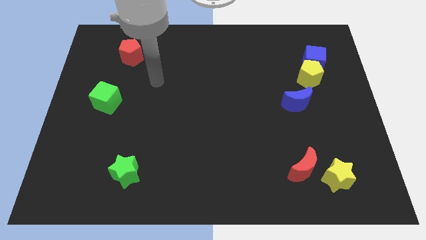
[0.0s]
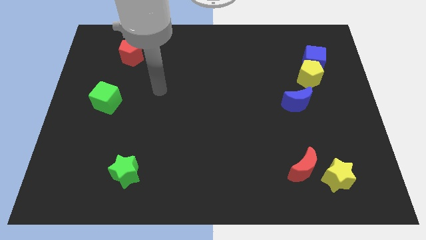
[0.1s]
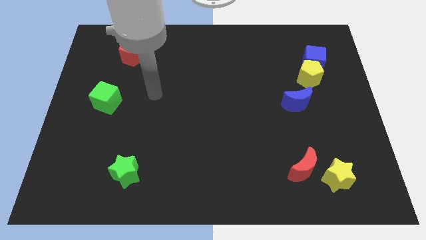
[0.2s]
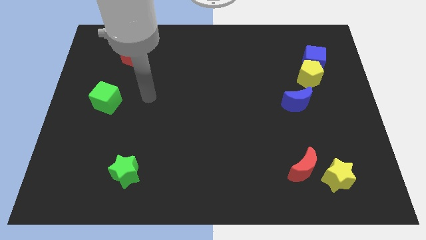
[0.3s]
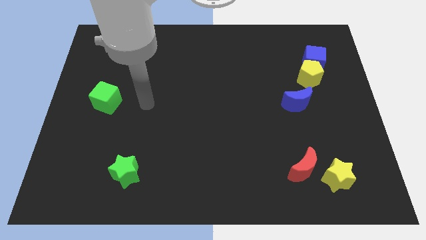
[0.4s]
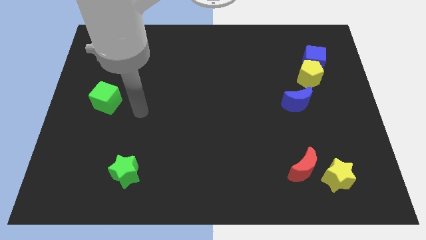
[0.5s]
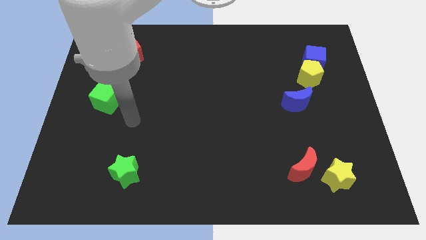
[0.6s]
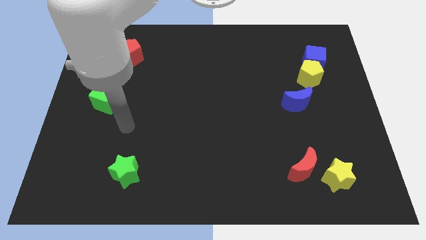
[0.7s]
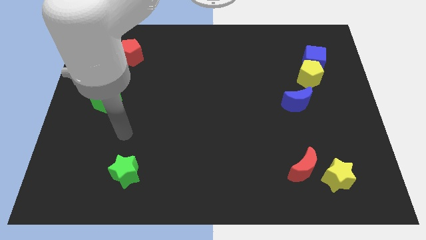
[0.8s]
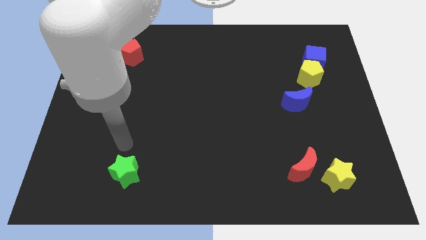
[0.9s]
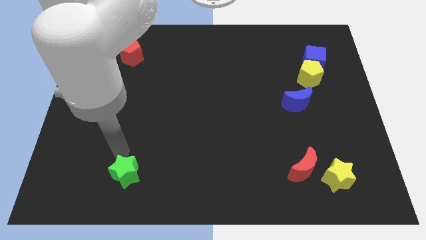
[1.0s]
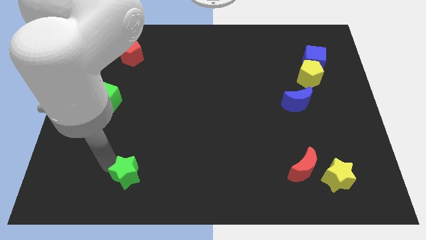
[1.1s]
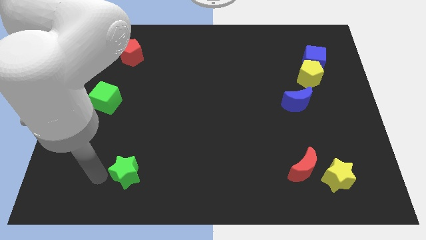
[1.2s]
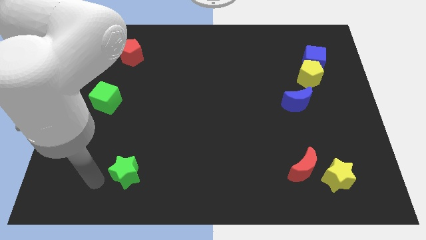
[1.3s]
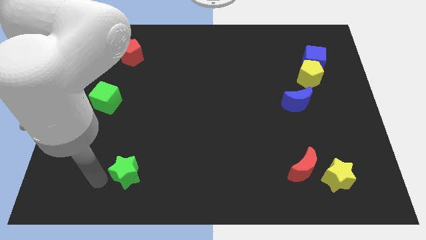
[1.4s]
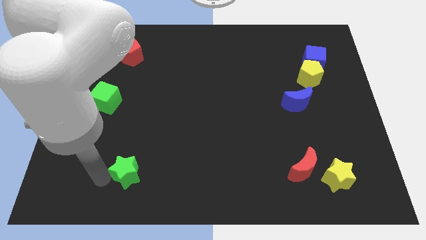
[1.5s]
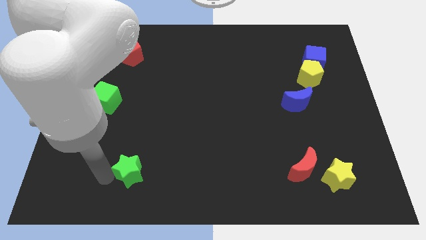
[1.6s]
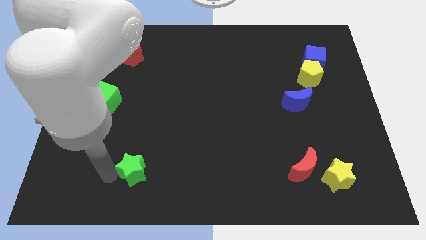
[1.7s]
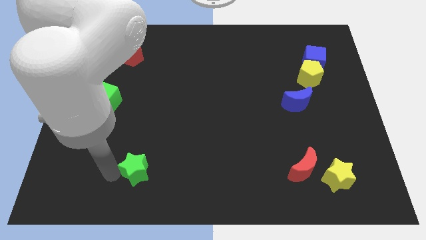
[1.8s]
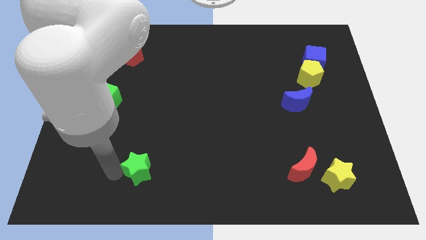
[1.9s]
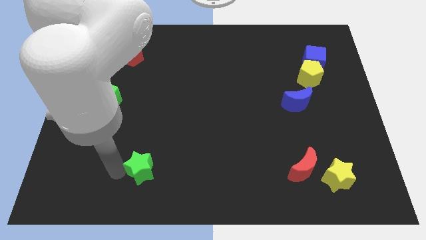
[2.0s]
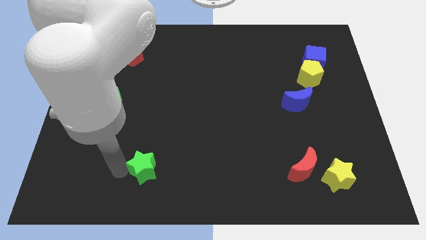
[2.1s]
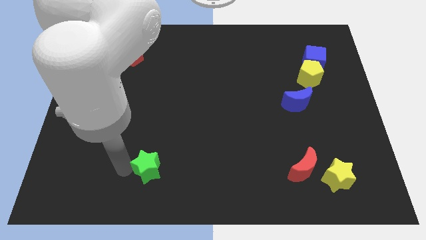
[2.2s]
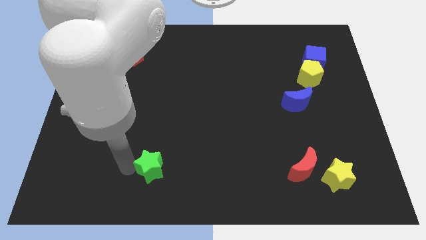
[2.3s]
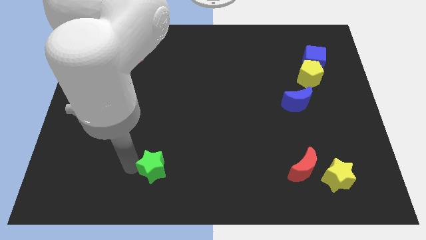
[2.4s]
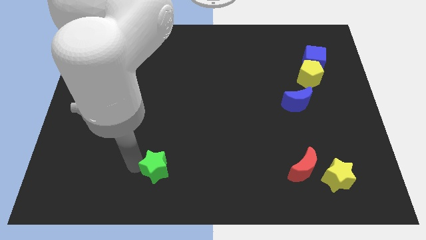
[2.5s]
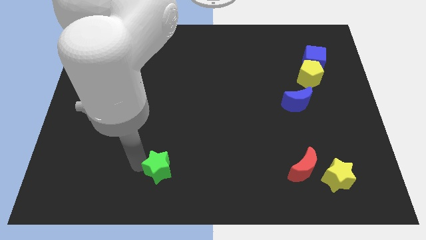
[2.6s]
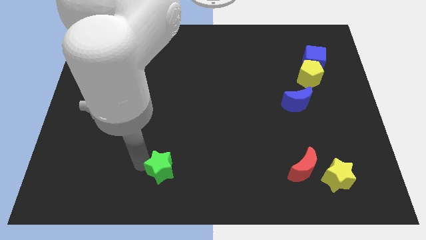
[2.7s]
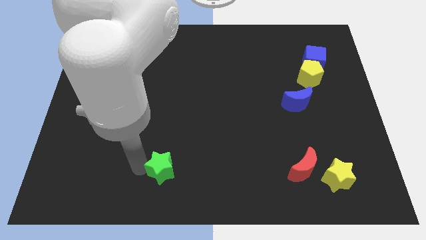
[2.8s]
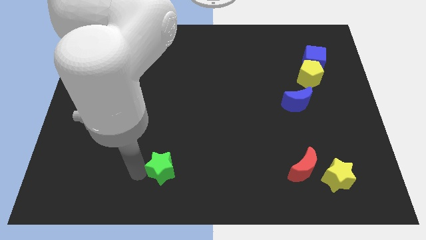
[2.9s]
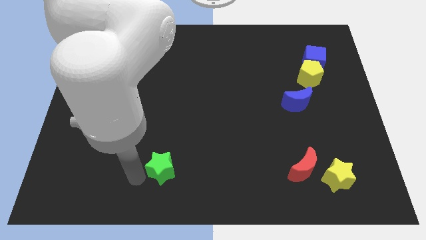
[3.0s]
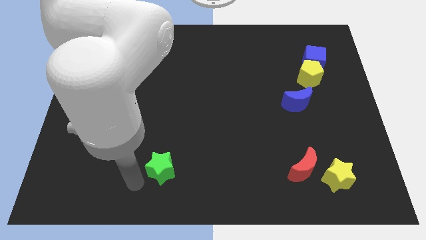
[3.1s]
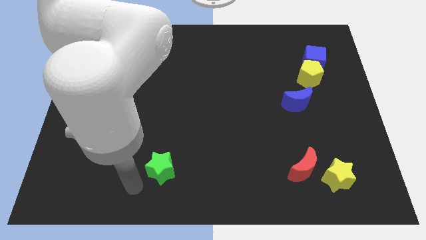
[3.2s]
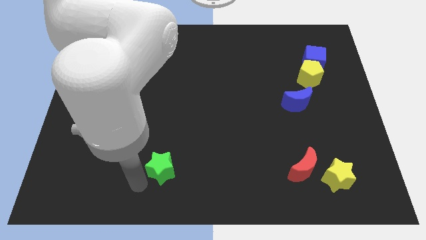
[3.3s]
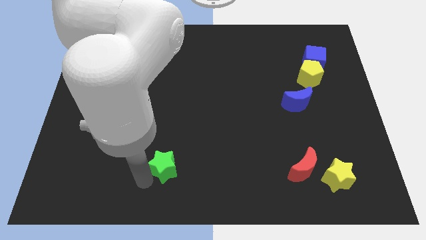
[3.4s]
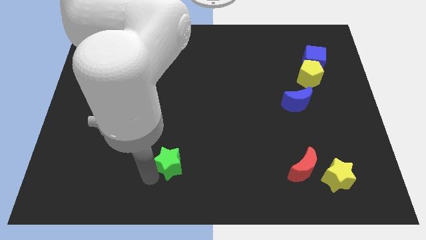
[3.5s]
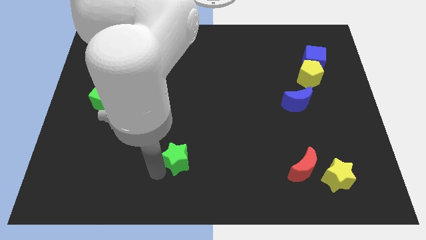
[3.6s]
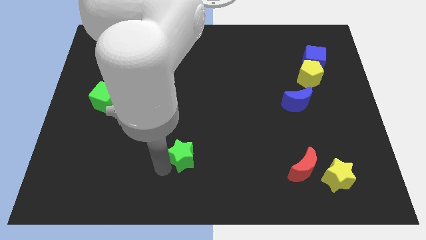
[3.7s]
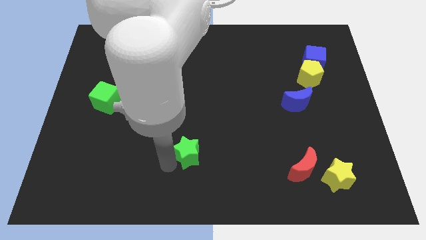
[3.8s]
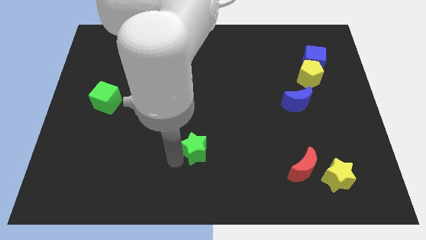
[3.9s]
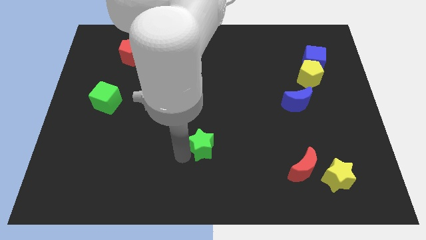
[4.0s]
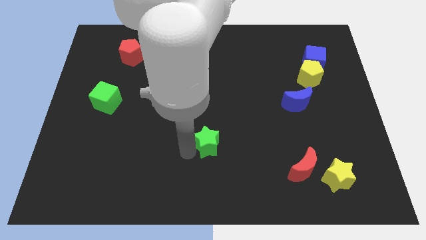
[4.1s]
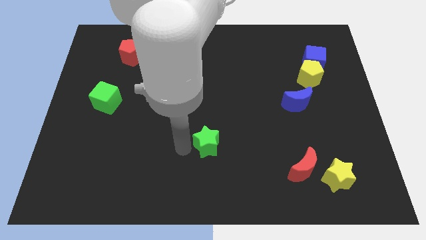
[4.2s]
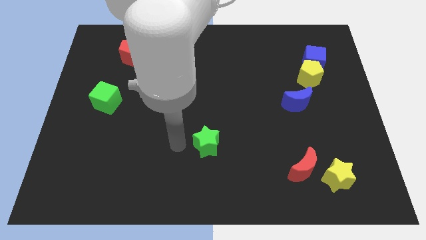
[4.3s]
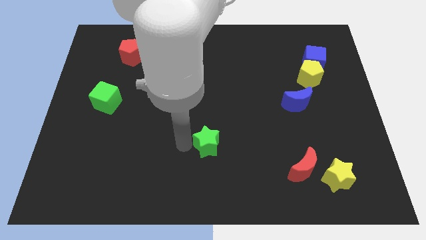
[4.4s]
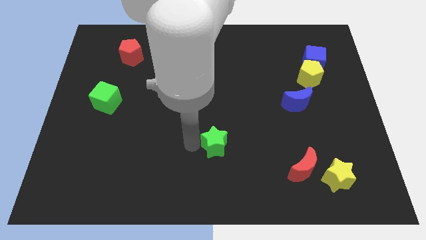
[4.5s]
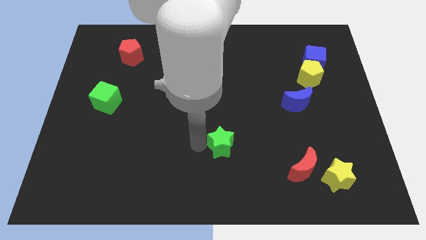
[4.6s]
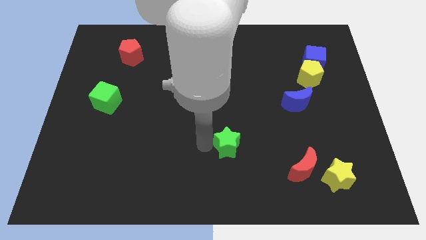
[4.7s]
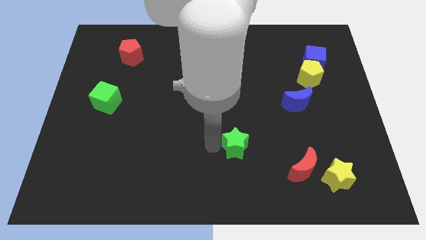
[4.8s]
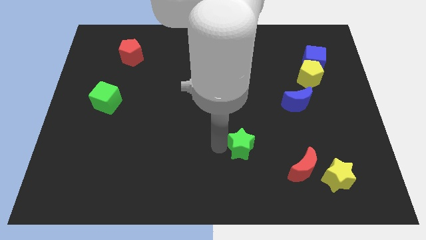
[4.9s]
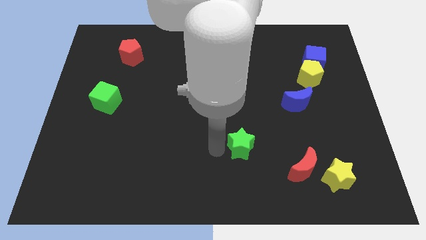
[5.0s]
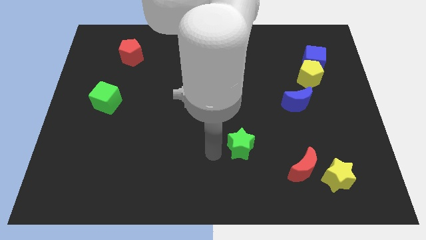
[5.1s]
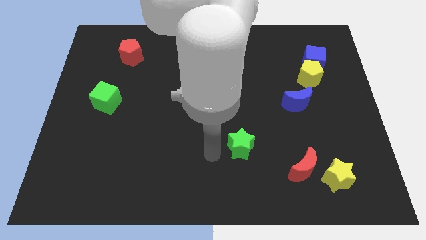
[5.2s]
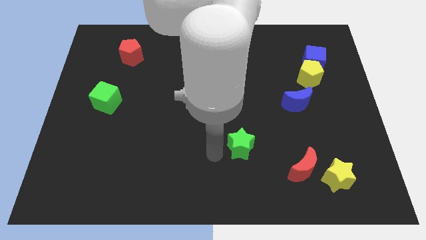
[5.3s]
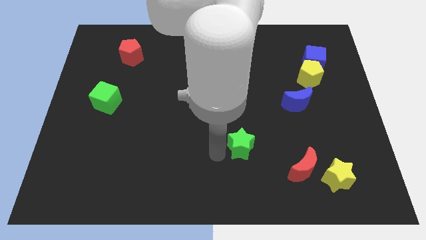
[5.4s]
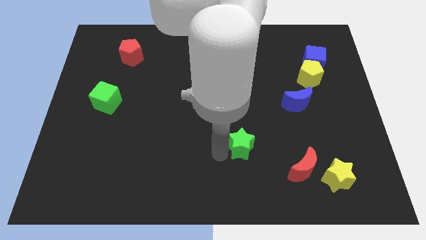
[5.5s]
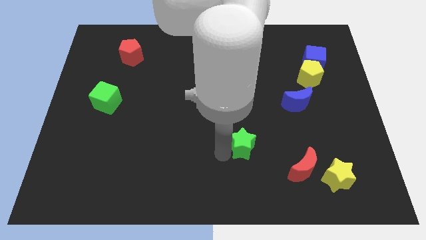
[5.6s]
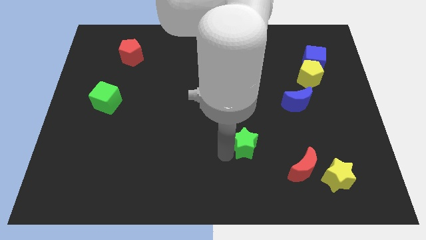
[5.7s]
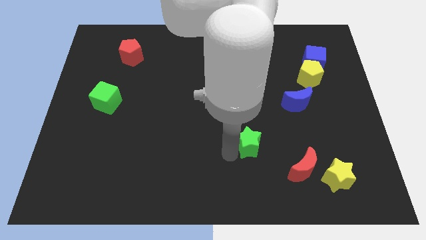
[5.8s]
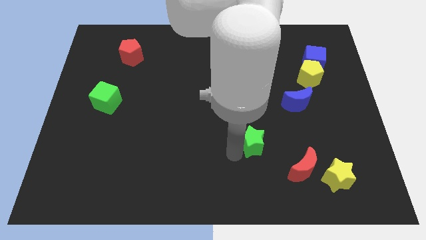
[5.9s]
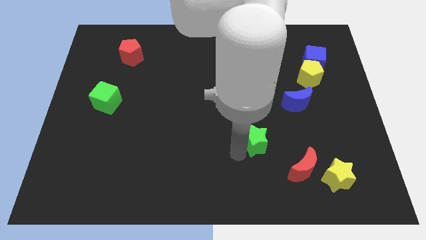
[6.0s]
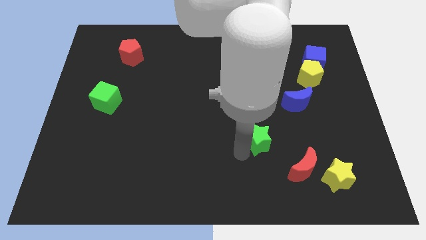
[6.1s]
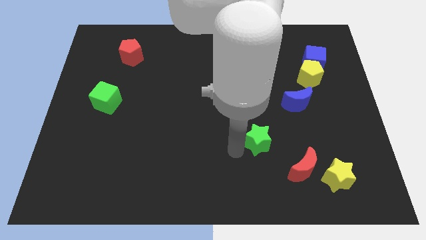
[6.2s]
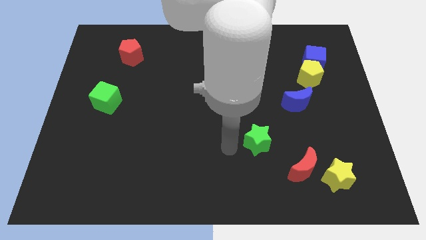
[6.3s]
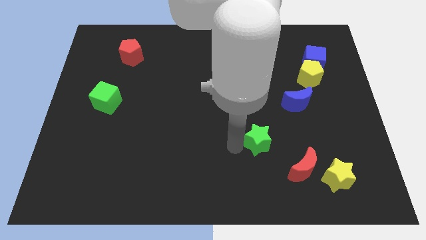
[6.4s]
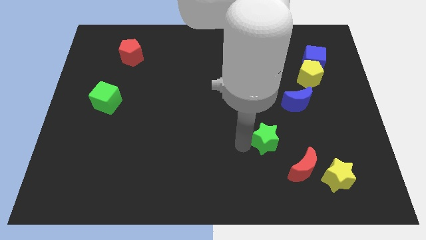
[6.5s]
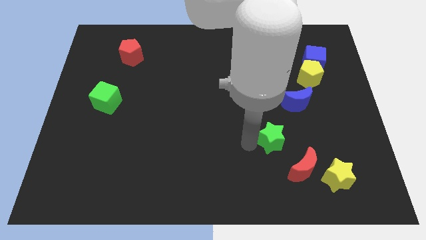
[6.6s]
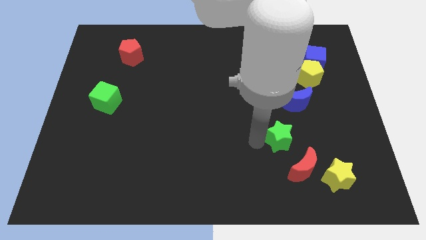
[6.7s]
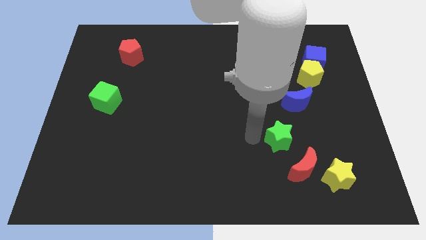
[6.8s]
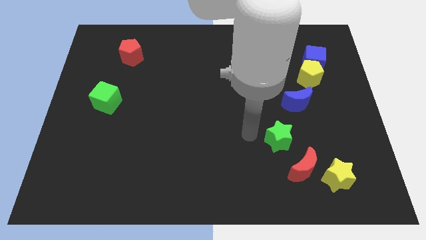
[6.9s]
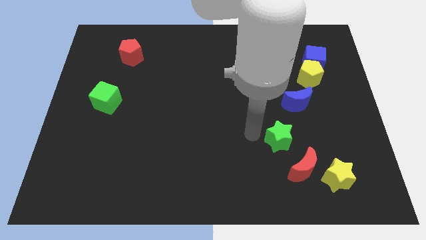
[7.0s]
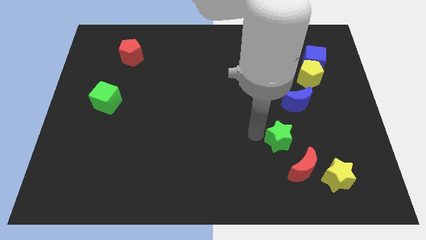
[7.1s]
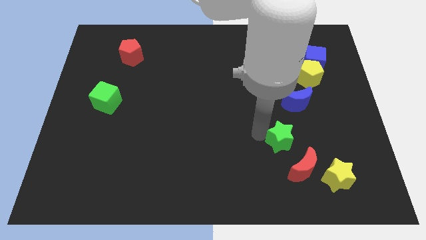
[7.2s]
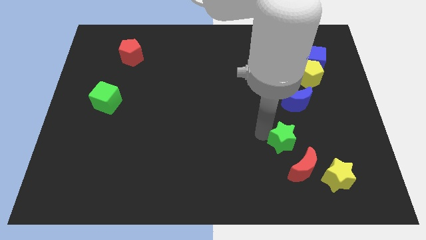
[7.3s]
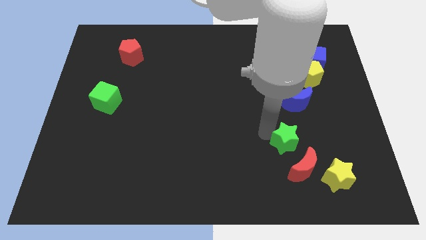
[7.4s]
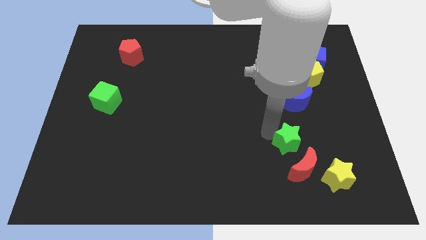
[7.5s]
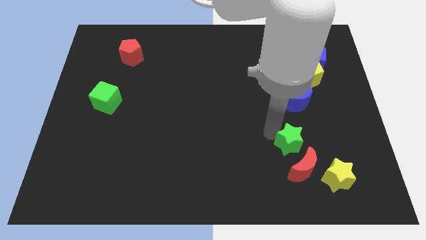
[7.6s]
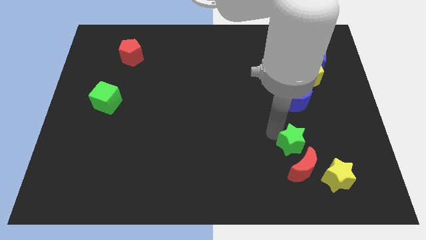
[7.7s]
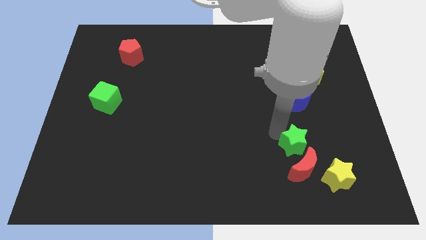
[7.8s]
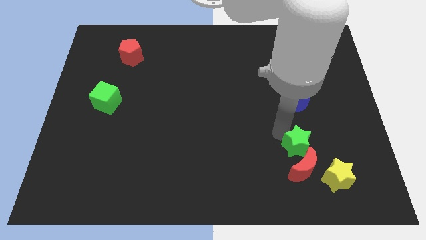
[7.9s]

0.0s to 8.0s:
put the green star to the top right side of the red moon
